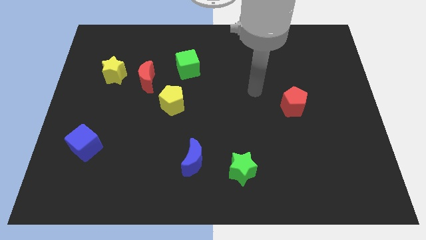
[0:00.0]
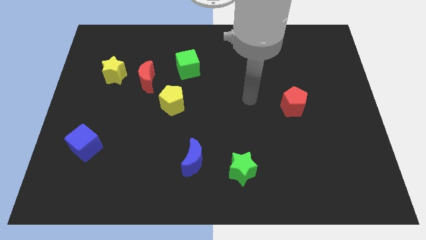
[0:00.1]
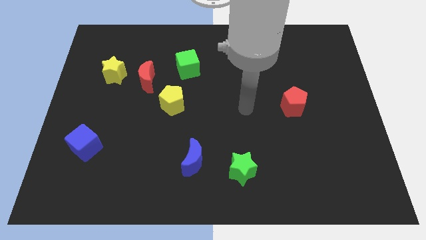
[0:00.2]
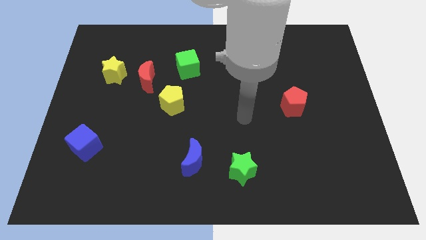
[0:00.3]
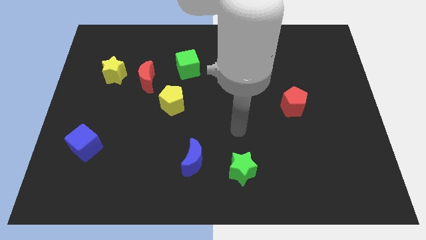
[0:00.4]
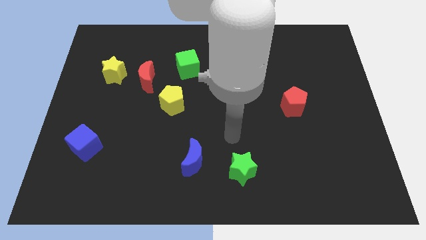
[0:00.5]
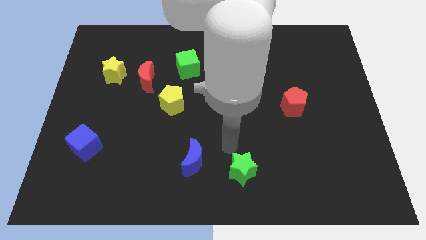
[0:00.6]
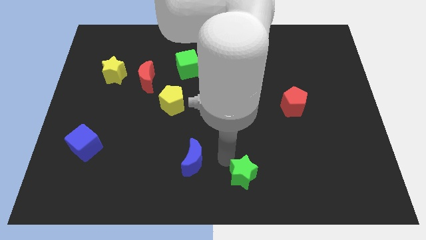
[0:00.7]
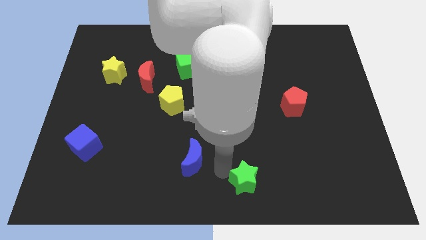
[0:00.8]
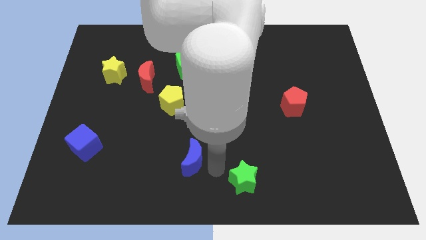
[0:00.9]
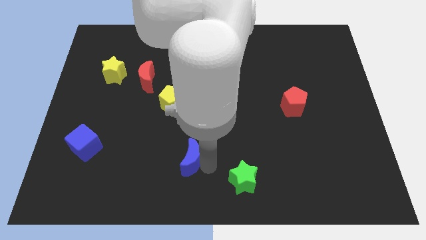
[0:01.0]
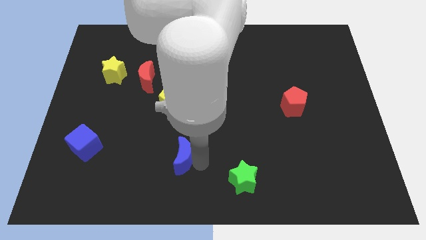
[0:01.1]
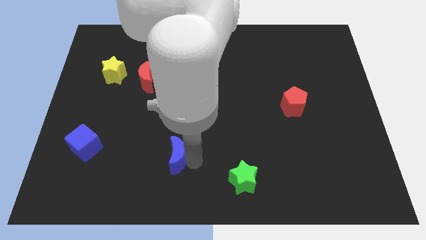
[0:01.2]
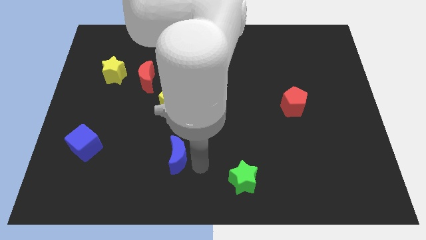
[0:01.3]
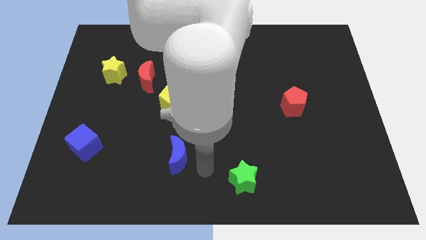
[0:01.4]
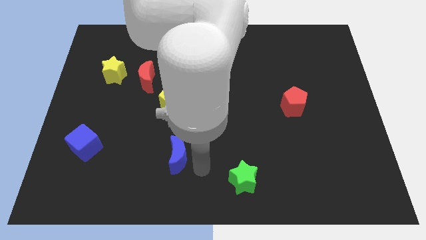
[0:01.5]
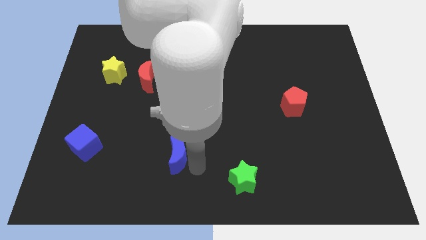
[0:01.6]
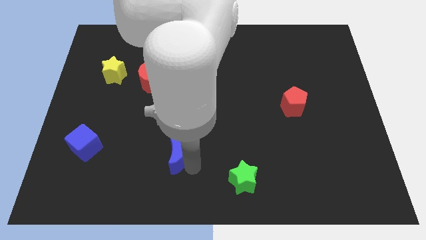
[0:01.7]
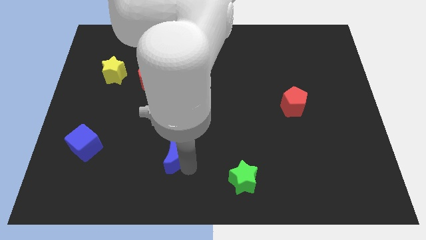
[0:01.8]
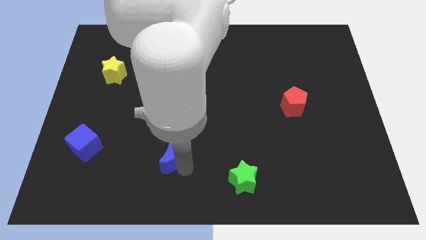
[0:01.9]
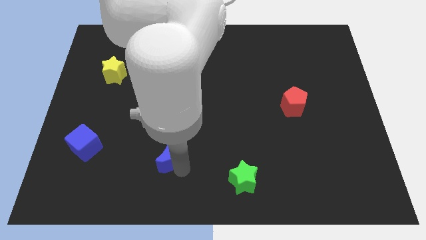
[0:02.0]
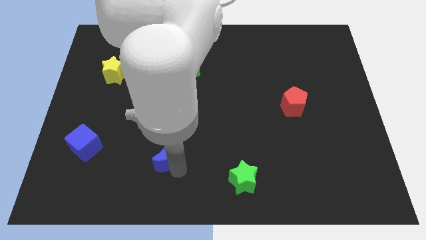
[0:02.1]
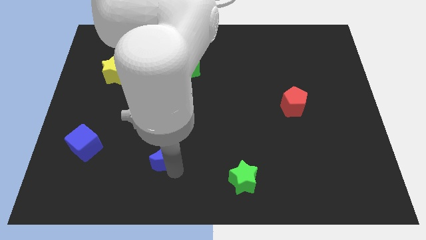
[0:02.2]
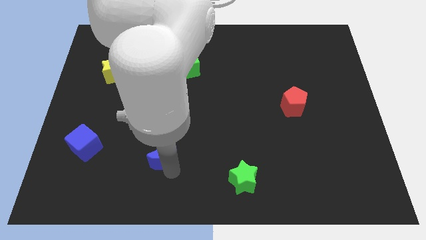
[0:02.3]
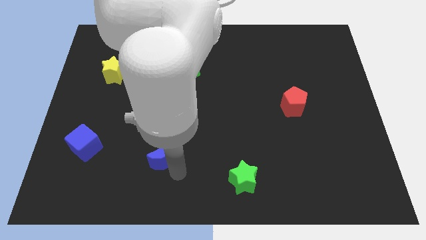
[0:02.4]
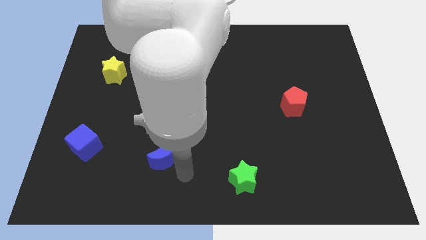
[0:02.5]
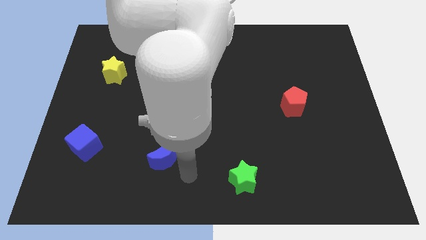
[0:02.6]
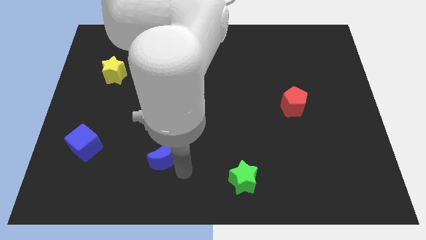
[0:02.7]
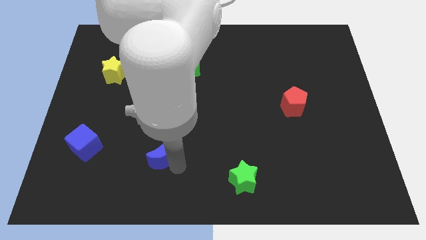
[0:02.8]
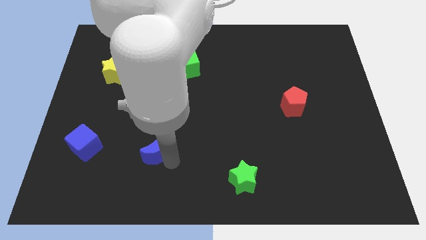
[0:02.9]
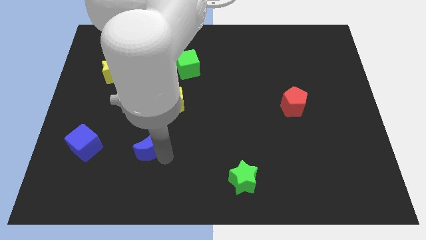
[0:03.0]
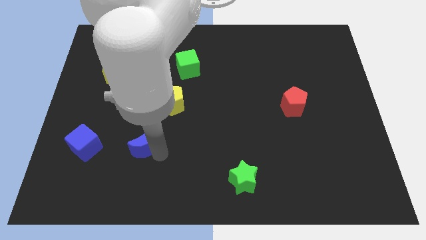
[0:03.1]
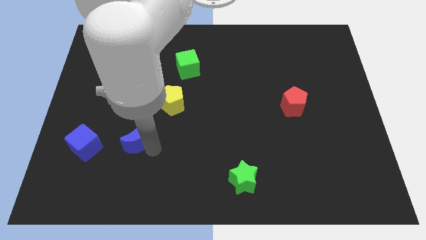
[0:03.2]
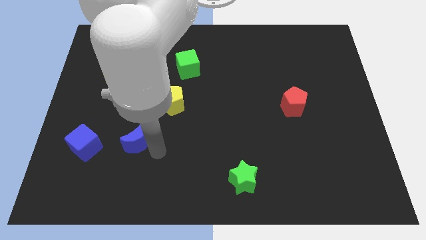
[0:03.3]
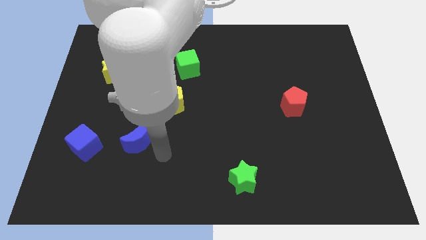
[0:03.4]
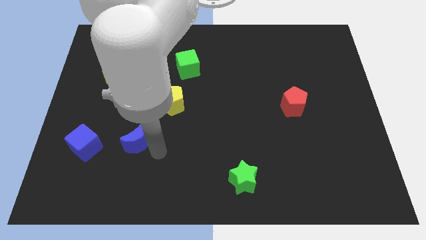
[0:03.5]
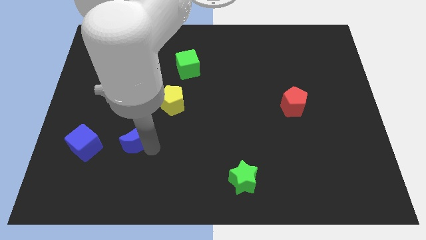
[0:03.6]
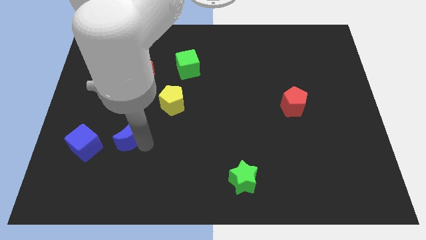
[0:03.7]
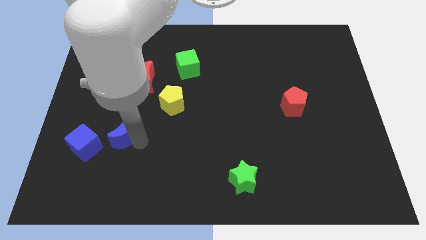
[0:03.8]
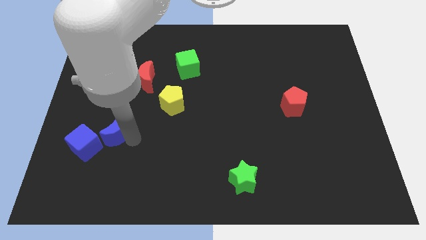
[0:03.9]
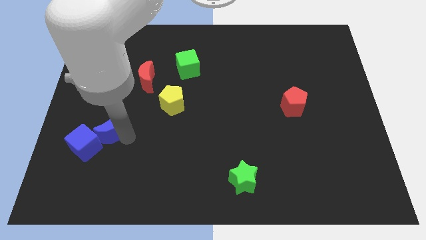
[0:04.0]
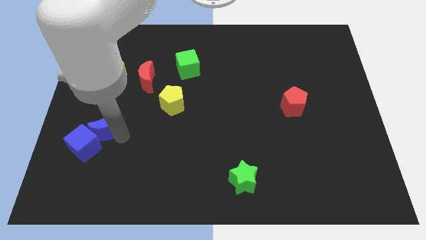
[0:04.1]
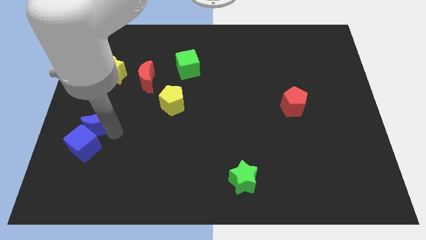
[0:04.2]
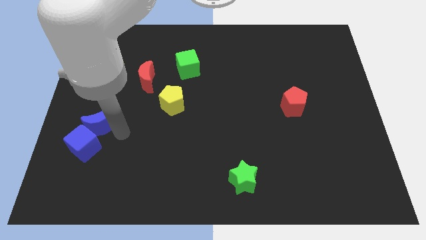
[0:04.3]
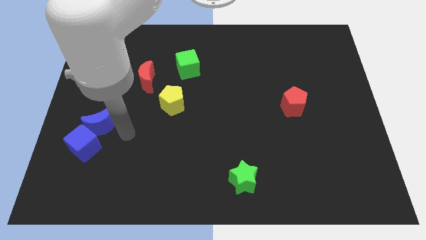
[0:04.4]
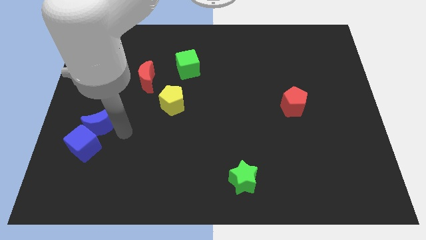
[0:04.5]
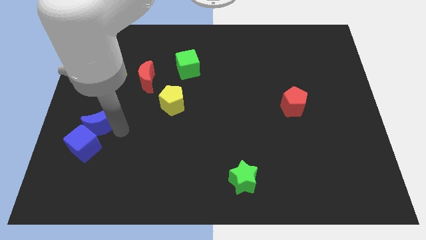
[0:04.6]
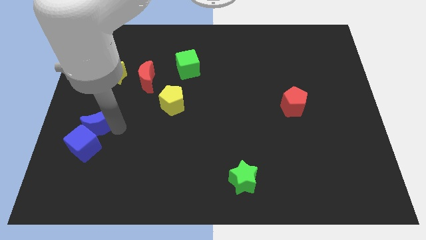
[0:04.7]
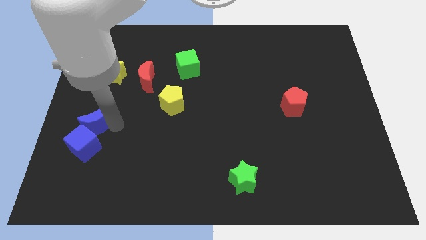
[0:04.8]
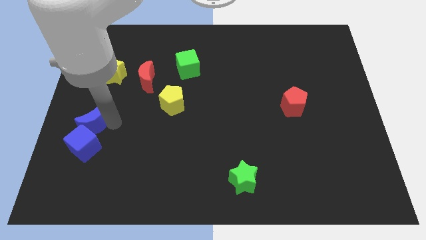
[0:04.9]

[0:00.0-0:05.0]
put the blue moon to the left side of the board

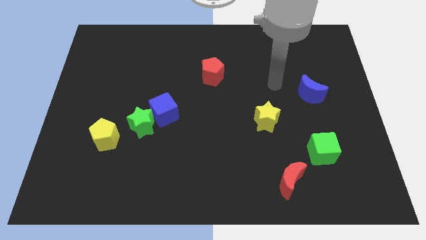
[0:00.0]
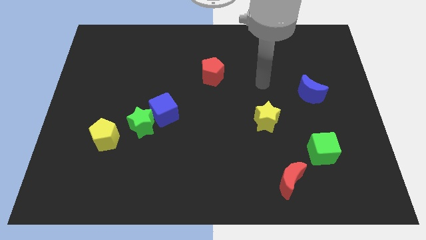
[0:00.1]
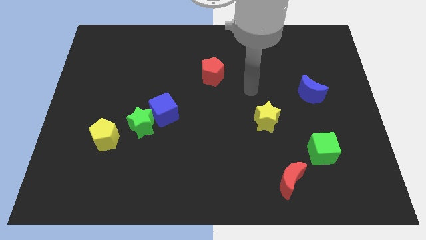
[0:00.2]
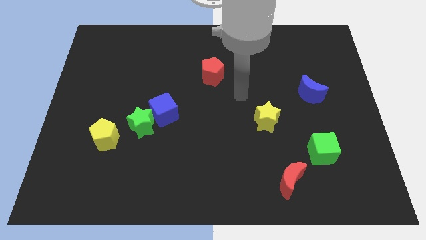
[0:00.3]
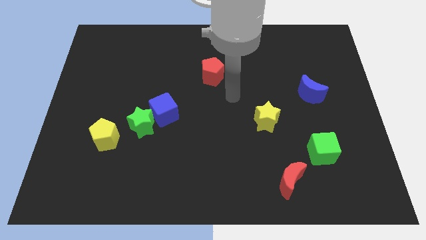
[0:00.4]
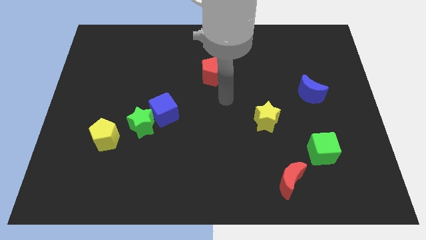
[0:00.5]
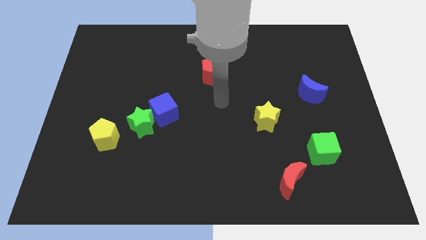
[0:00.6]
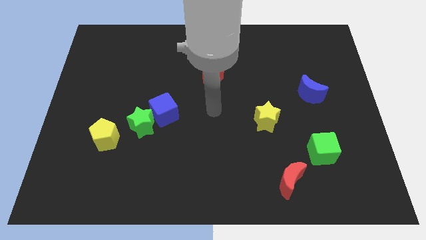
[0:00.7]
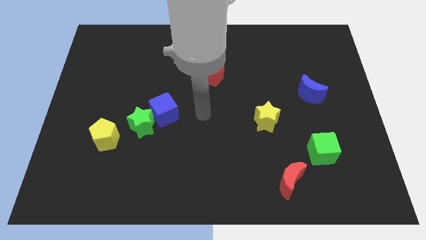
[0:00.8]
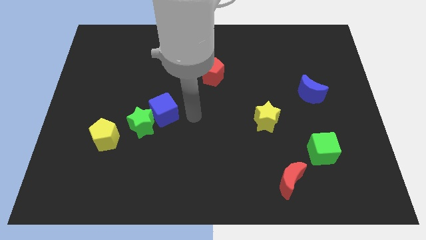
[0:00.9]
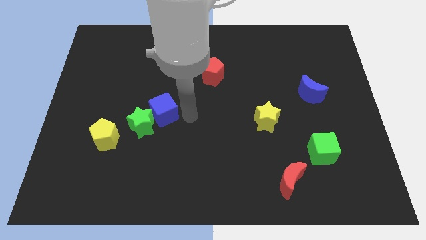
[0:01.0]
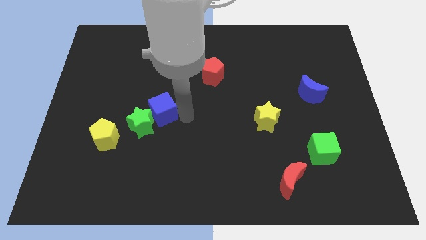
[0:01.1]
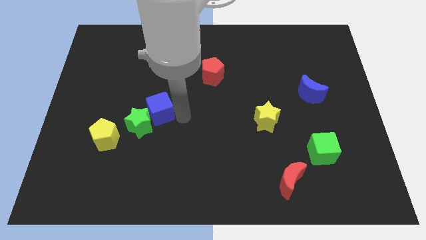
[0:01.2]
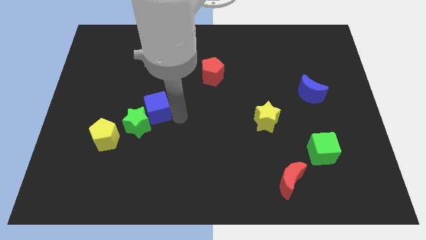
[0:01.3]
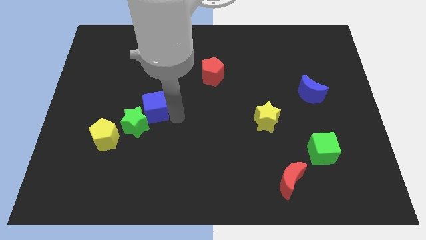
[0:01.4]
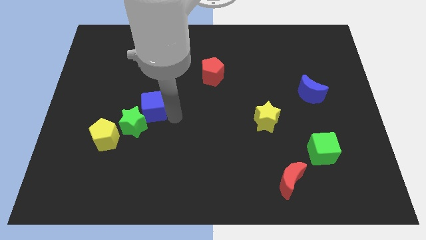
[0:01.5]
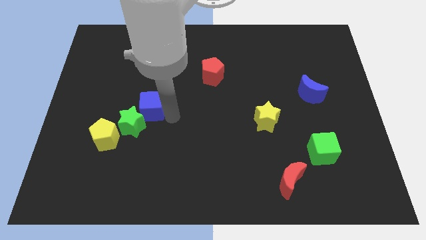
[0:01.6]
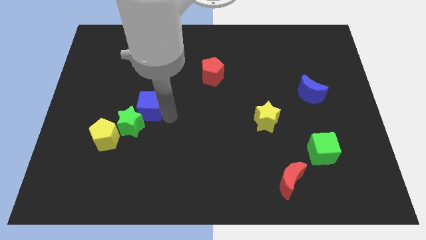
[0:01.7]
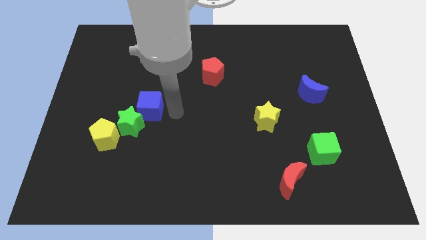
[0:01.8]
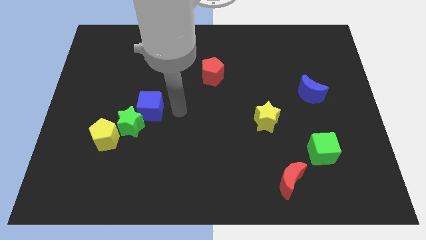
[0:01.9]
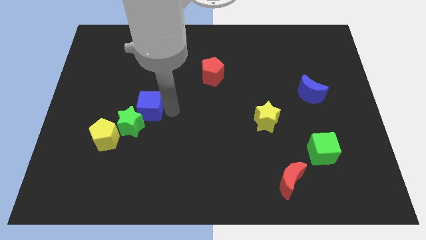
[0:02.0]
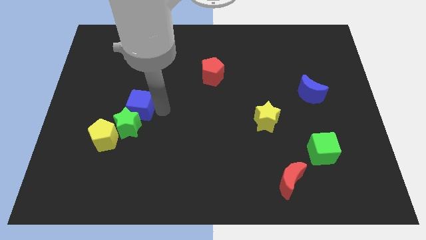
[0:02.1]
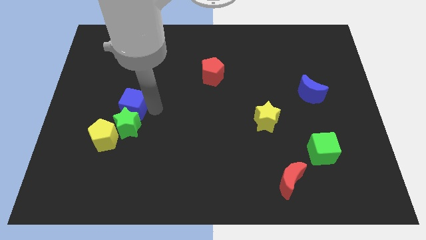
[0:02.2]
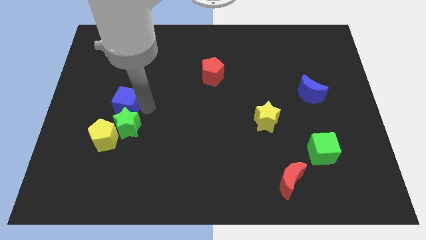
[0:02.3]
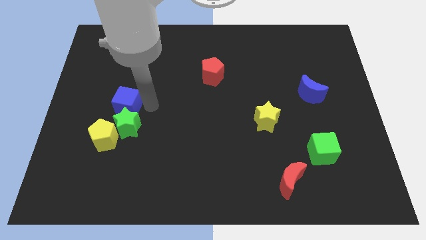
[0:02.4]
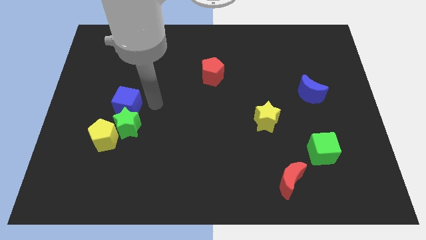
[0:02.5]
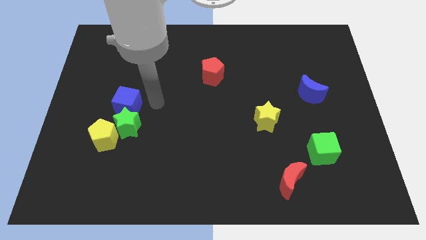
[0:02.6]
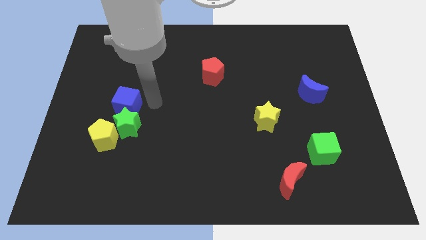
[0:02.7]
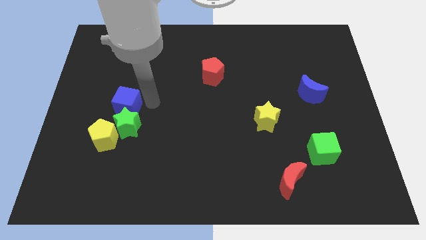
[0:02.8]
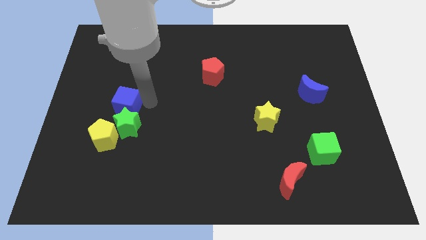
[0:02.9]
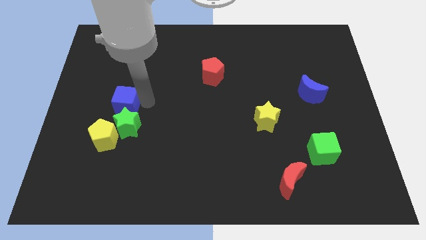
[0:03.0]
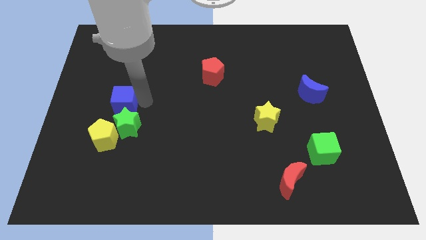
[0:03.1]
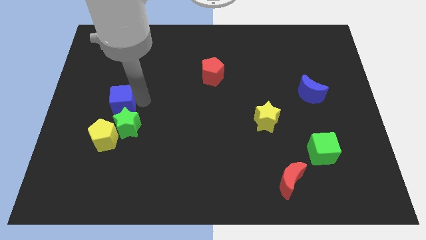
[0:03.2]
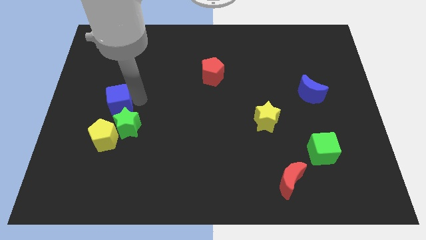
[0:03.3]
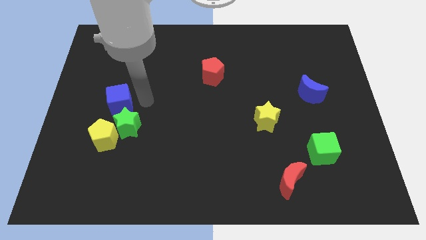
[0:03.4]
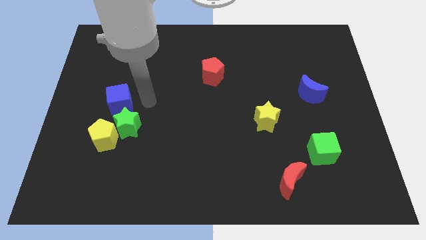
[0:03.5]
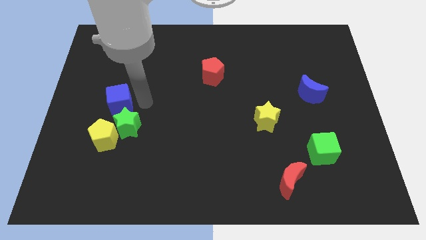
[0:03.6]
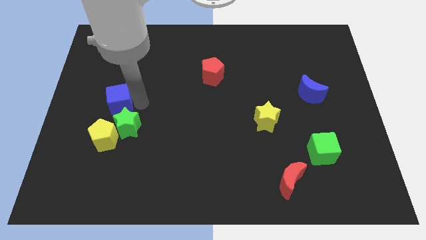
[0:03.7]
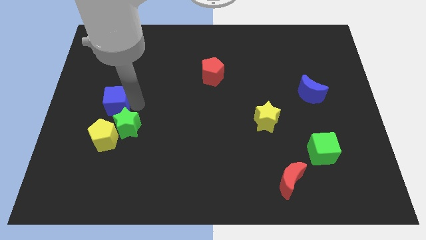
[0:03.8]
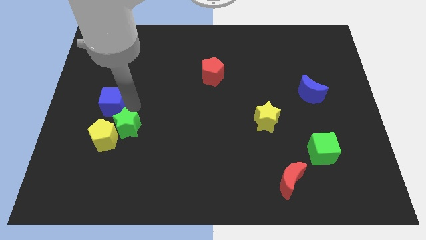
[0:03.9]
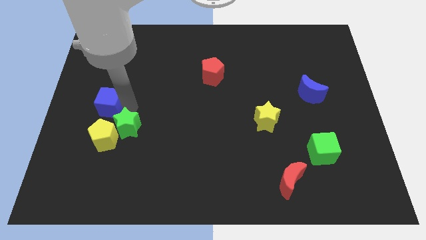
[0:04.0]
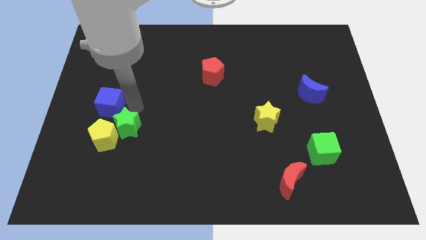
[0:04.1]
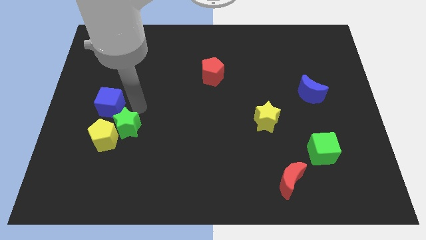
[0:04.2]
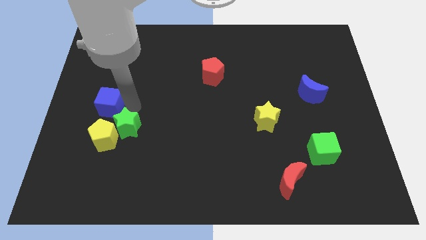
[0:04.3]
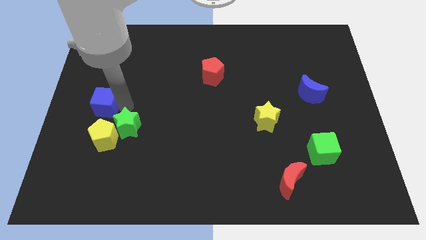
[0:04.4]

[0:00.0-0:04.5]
put the blue cube to the left side of the board
